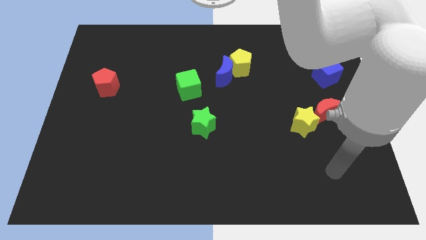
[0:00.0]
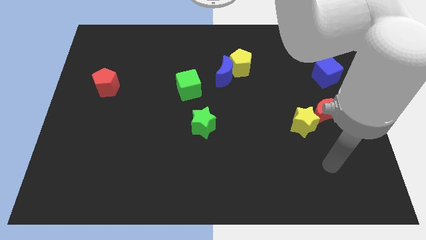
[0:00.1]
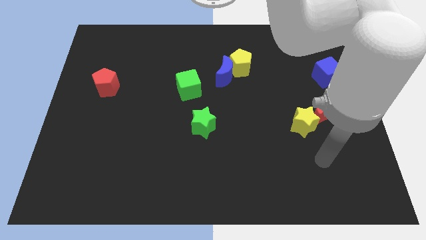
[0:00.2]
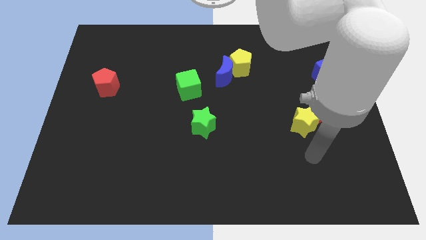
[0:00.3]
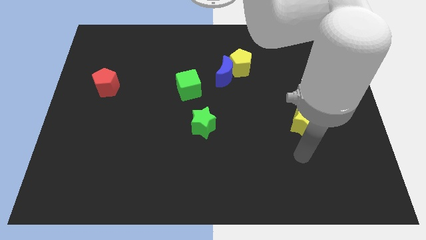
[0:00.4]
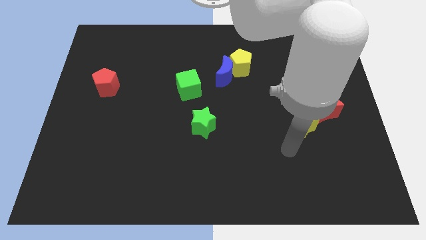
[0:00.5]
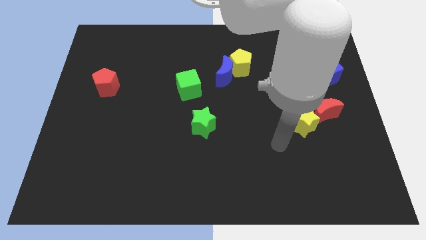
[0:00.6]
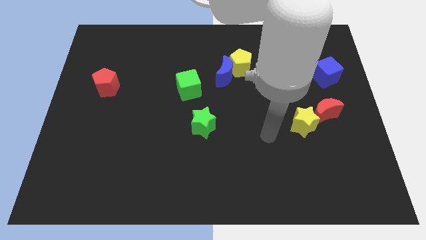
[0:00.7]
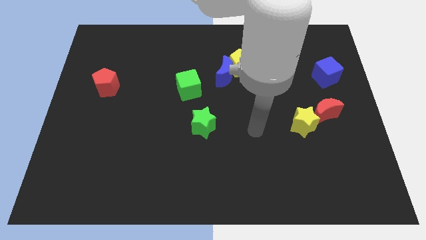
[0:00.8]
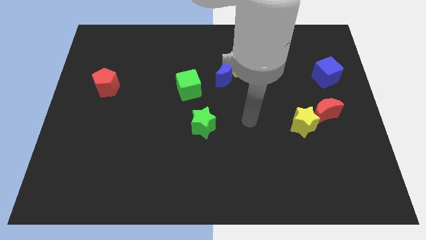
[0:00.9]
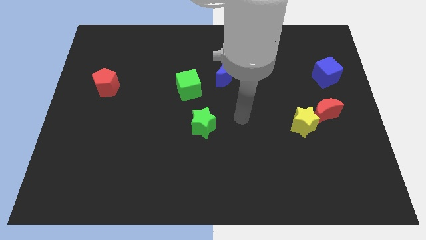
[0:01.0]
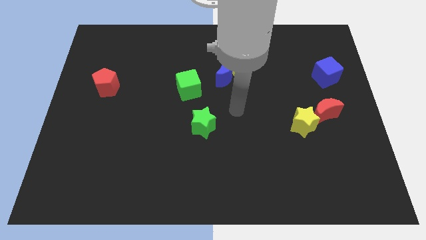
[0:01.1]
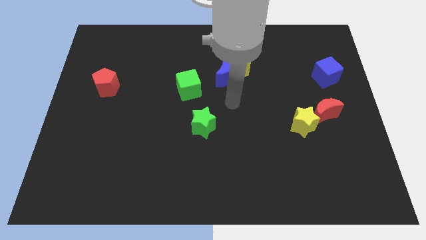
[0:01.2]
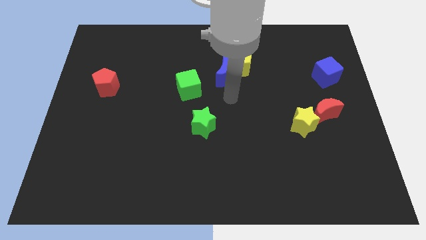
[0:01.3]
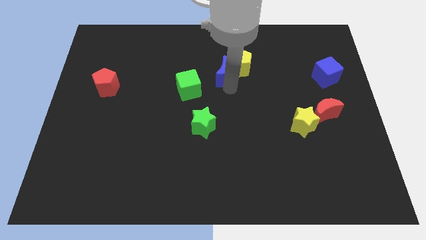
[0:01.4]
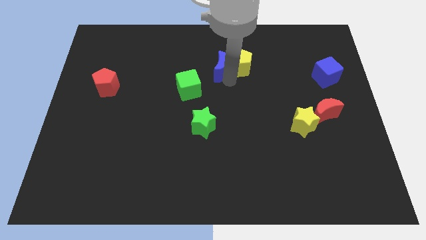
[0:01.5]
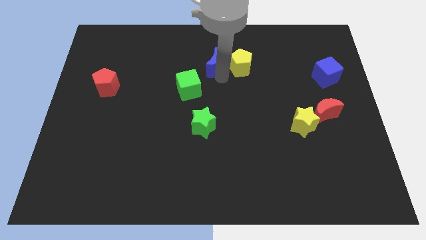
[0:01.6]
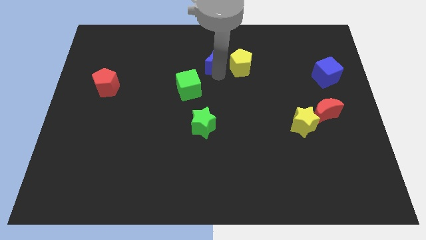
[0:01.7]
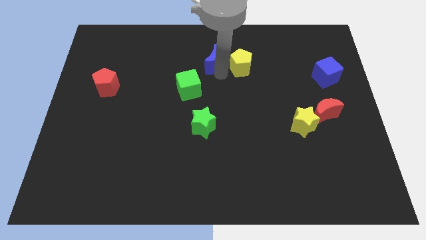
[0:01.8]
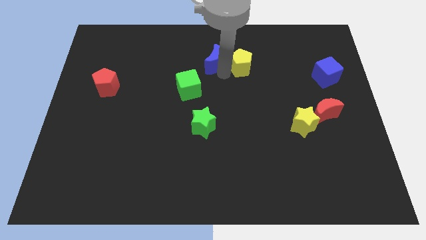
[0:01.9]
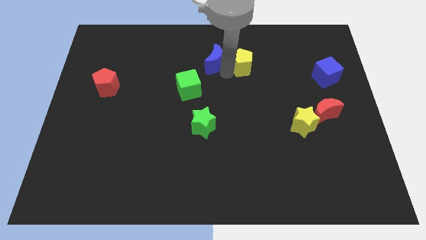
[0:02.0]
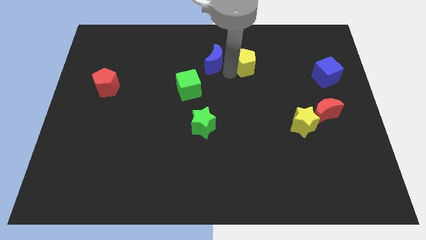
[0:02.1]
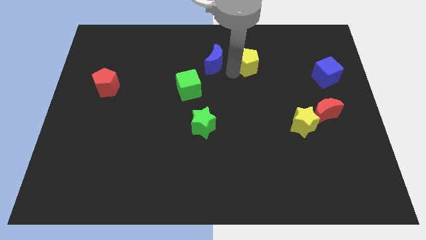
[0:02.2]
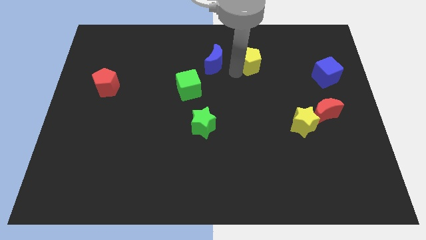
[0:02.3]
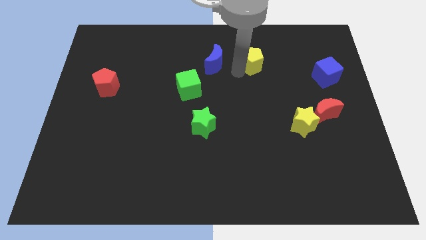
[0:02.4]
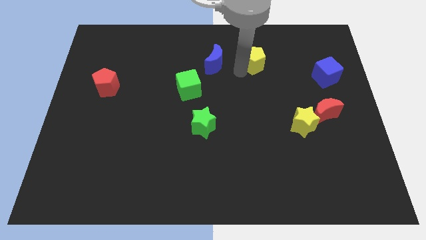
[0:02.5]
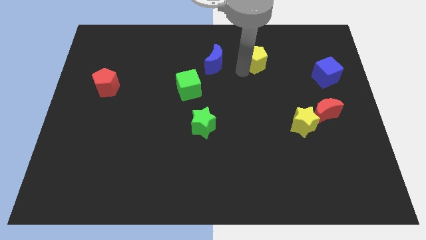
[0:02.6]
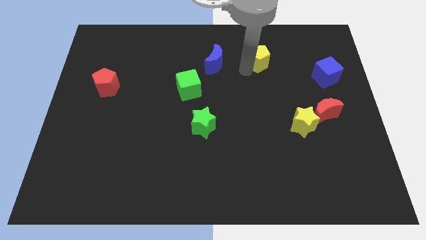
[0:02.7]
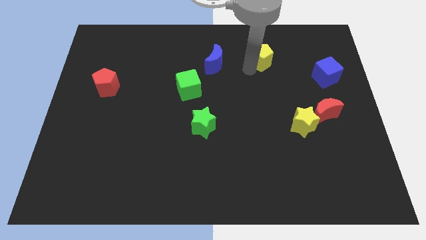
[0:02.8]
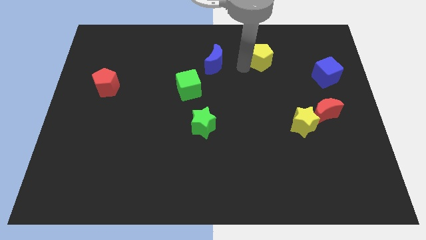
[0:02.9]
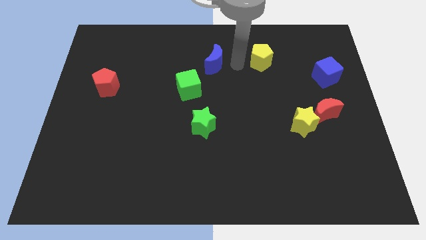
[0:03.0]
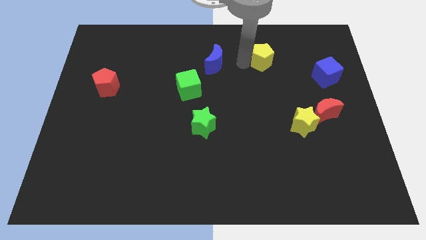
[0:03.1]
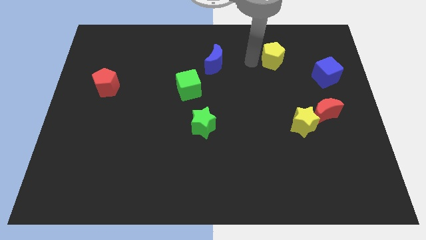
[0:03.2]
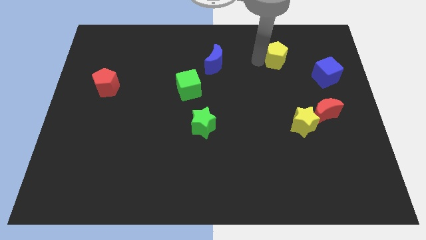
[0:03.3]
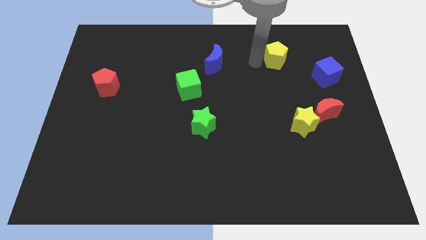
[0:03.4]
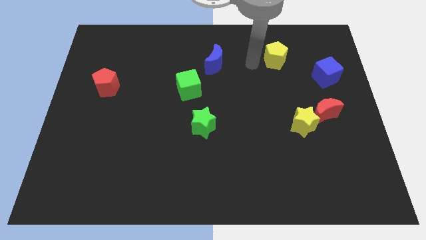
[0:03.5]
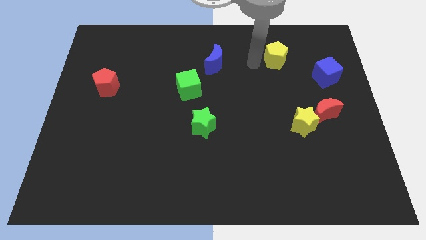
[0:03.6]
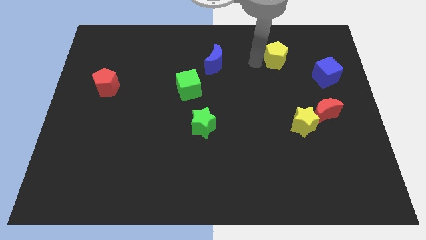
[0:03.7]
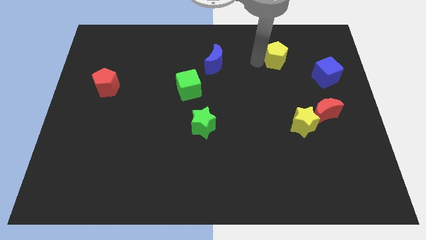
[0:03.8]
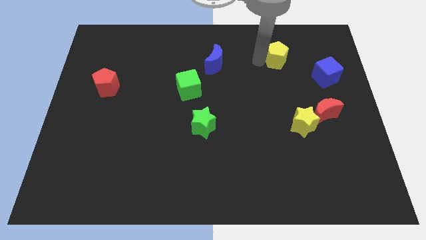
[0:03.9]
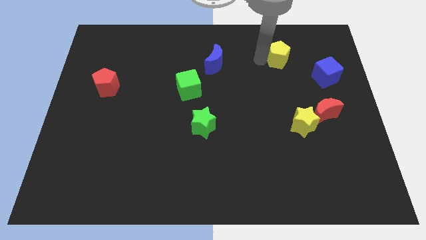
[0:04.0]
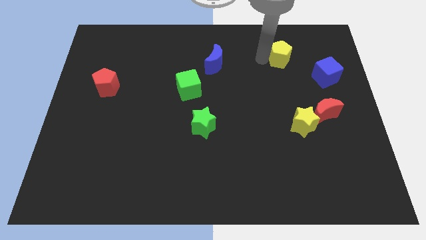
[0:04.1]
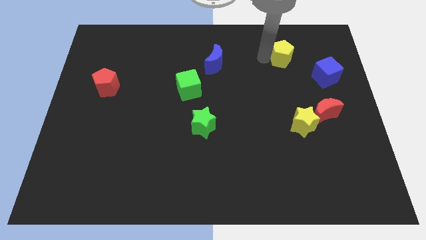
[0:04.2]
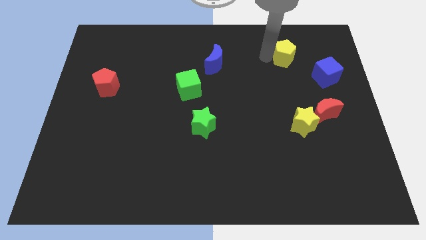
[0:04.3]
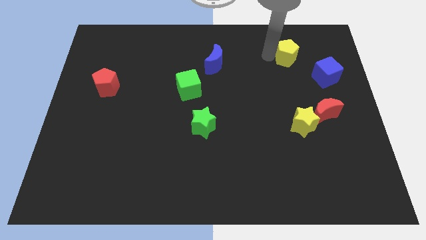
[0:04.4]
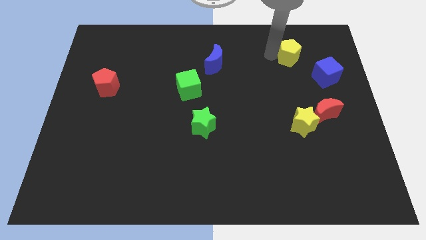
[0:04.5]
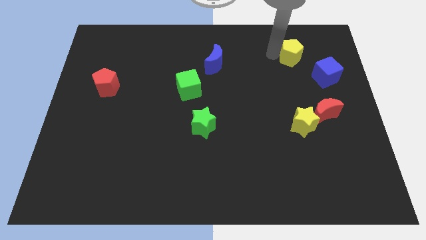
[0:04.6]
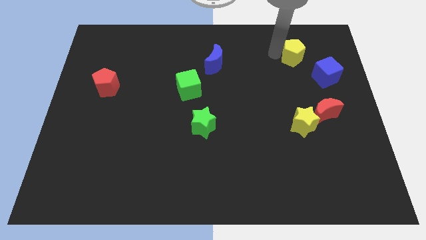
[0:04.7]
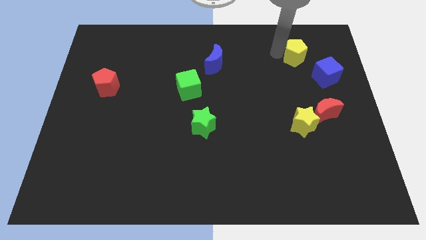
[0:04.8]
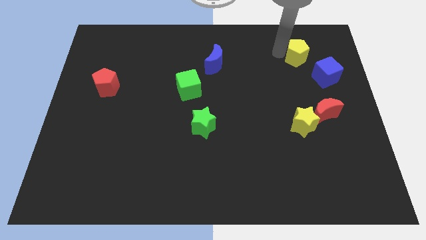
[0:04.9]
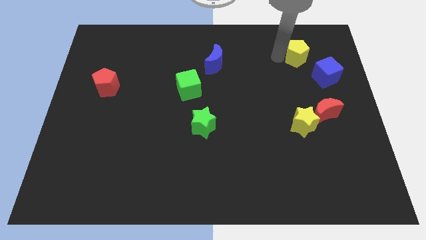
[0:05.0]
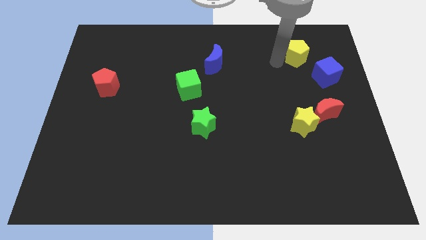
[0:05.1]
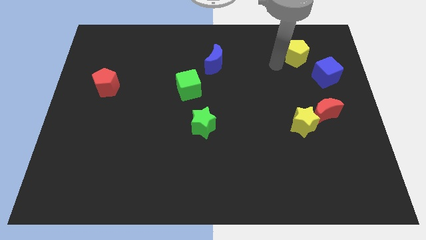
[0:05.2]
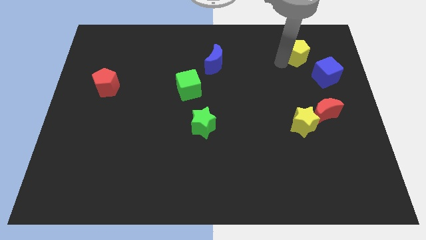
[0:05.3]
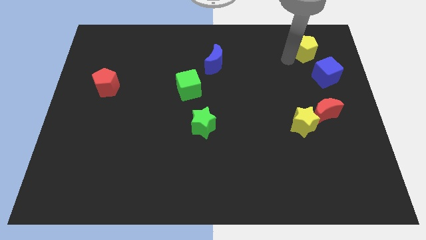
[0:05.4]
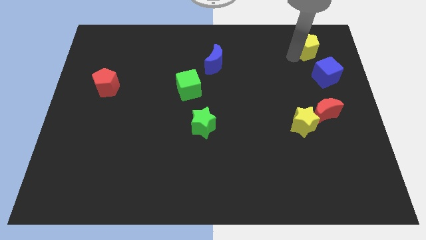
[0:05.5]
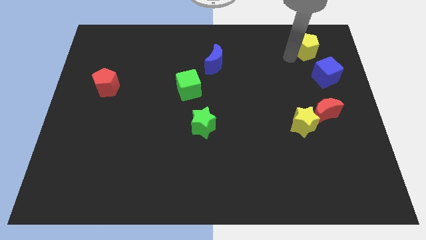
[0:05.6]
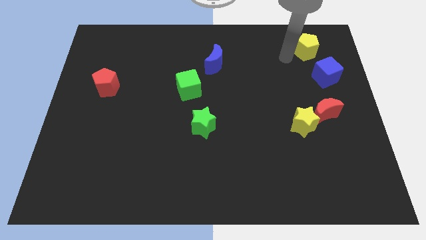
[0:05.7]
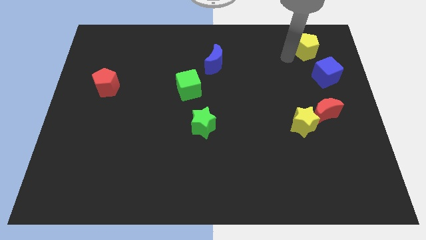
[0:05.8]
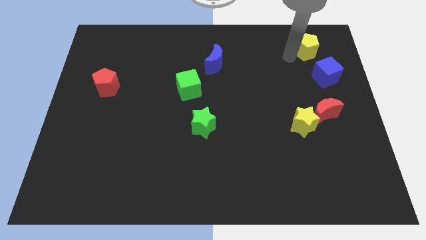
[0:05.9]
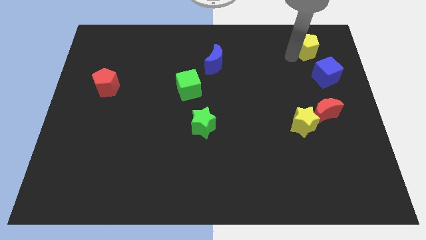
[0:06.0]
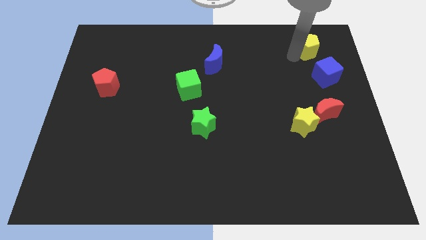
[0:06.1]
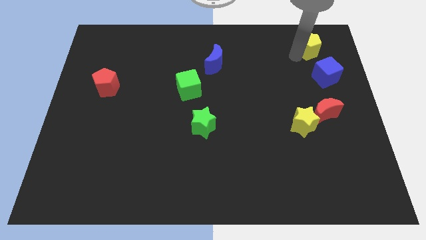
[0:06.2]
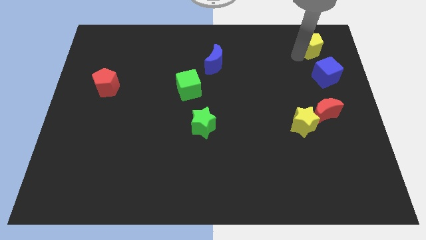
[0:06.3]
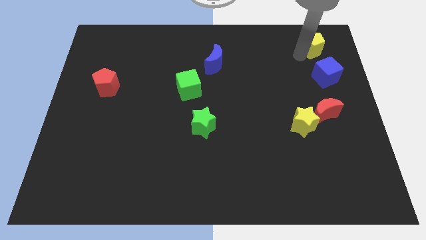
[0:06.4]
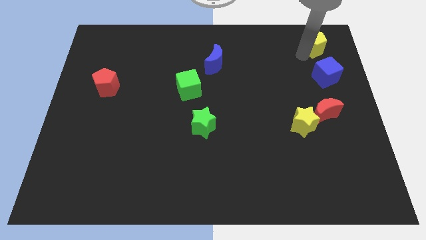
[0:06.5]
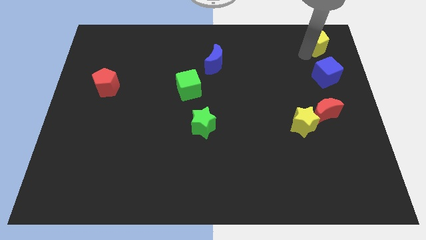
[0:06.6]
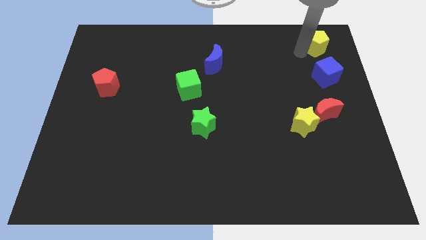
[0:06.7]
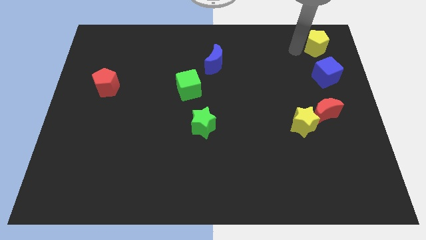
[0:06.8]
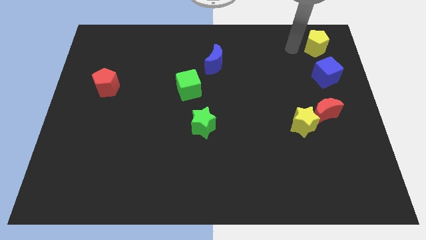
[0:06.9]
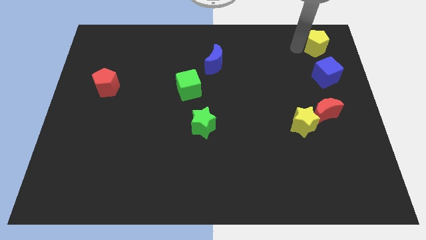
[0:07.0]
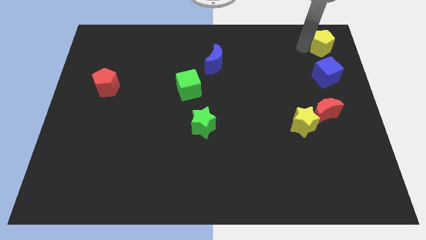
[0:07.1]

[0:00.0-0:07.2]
push the yellow pentagon to the upper right corner
